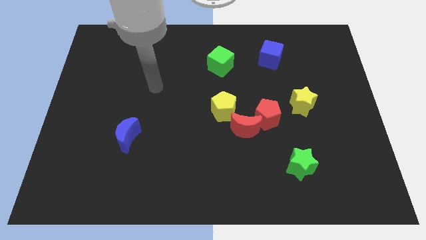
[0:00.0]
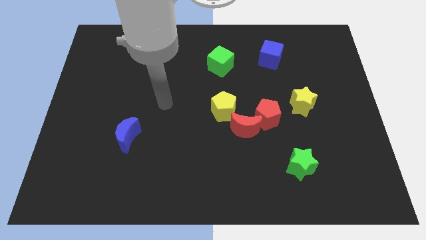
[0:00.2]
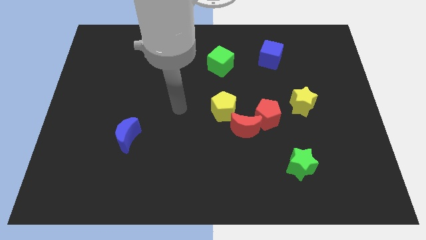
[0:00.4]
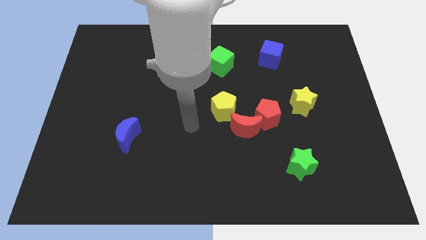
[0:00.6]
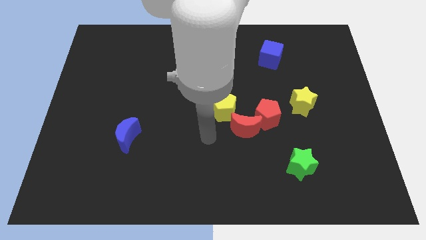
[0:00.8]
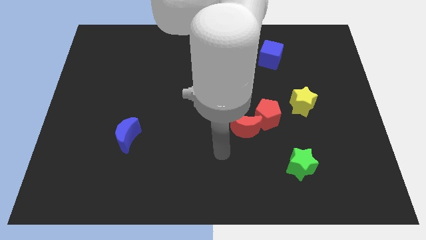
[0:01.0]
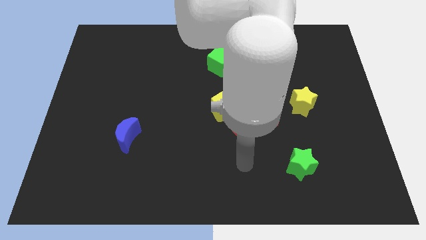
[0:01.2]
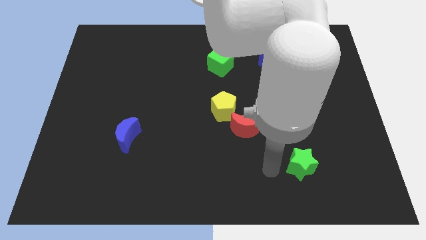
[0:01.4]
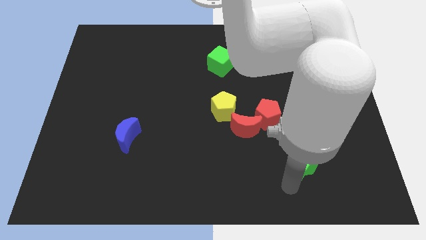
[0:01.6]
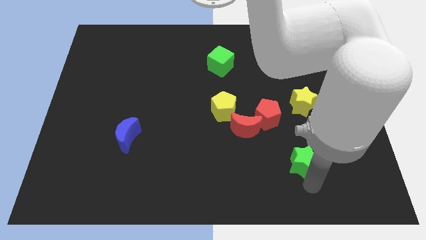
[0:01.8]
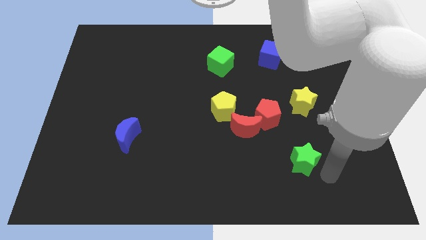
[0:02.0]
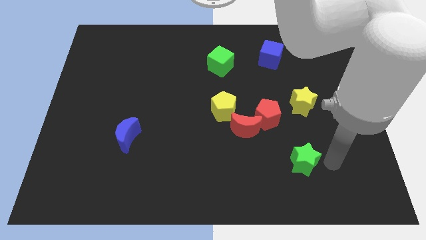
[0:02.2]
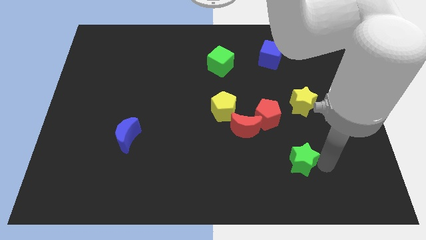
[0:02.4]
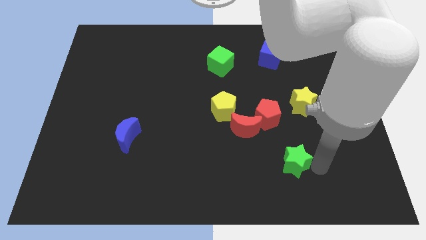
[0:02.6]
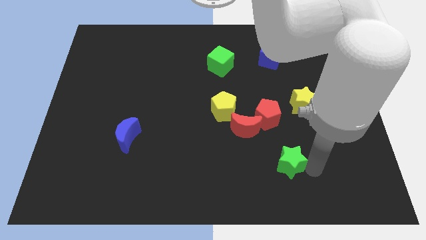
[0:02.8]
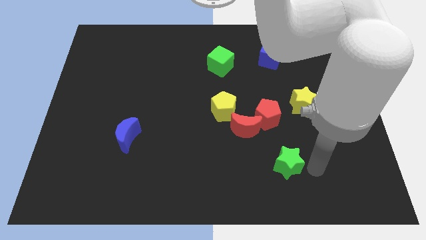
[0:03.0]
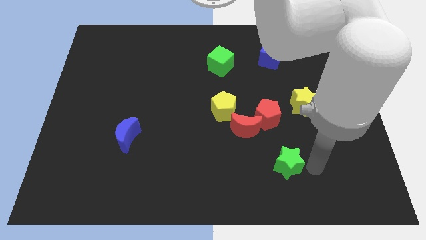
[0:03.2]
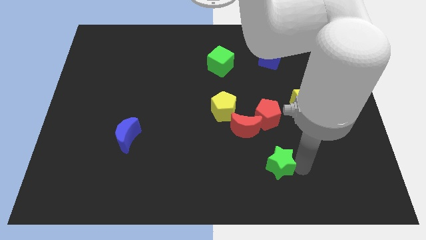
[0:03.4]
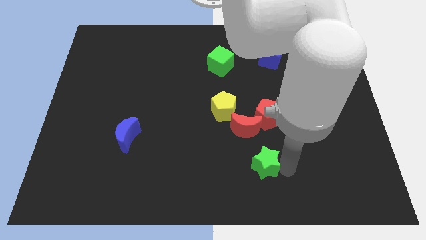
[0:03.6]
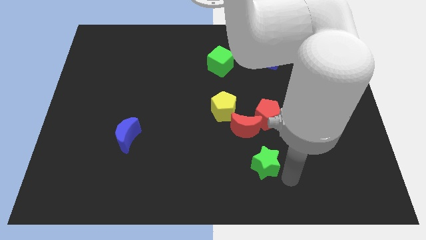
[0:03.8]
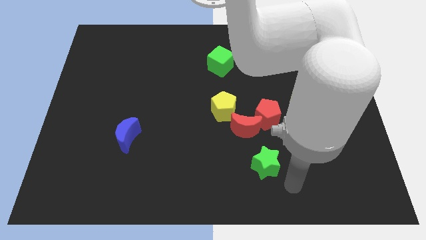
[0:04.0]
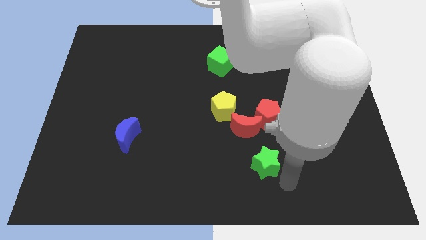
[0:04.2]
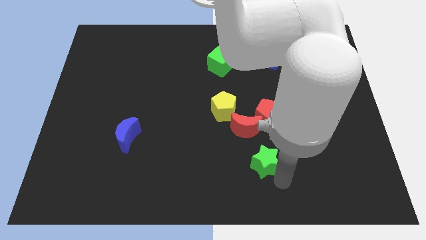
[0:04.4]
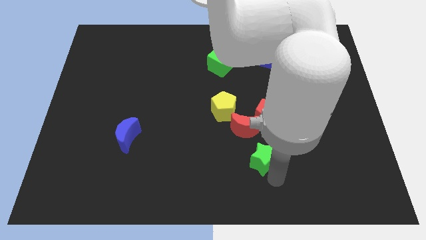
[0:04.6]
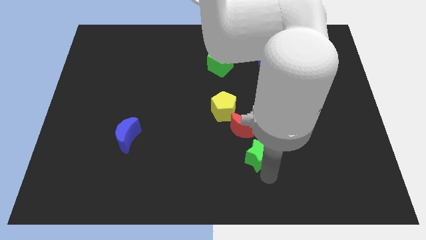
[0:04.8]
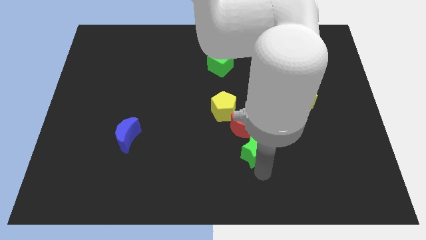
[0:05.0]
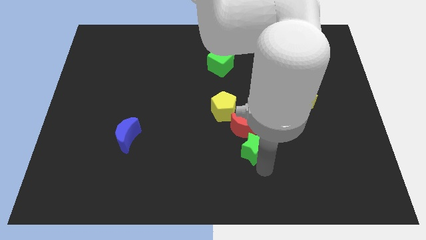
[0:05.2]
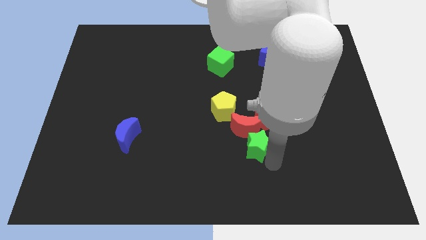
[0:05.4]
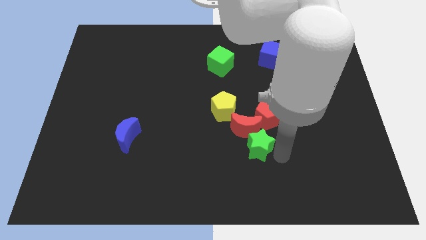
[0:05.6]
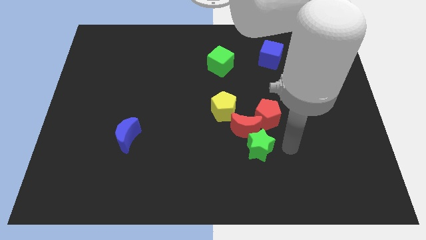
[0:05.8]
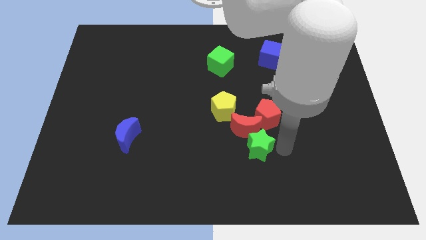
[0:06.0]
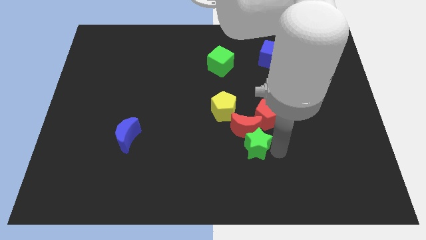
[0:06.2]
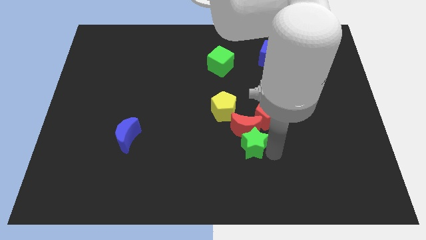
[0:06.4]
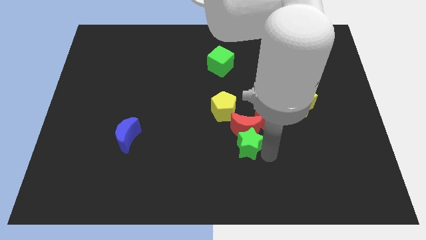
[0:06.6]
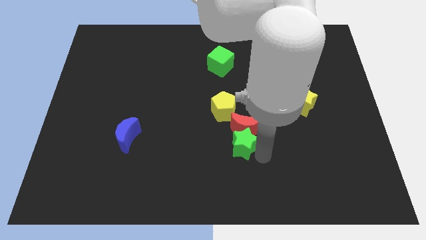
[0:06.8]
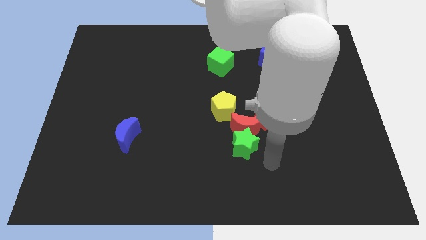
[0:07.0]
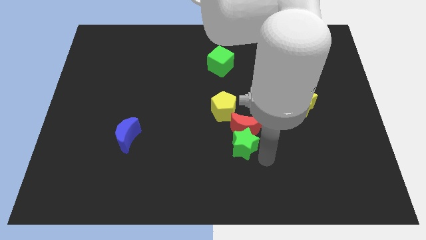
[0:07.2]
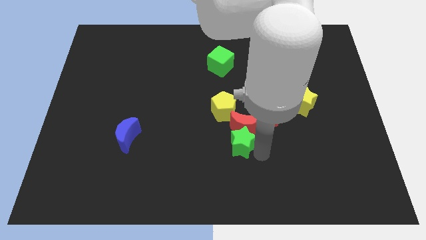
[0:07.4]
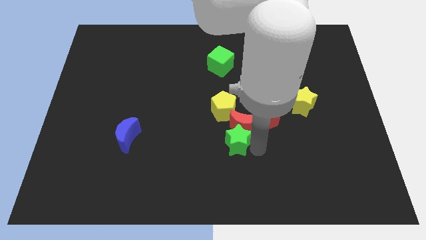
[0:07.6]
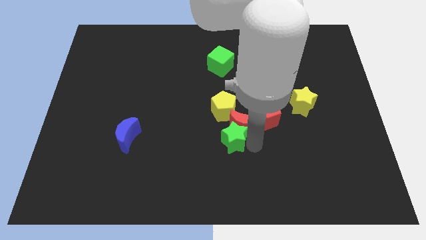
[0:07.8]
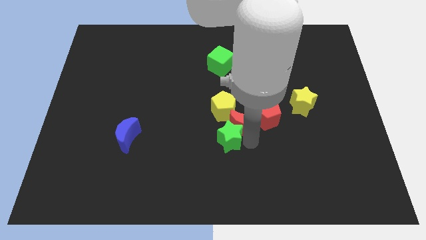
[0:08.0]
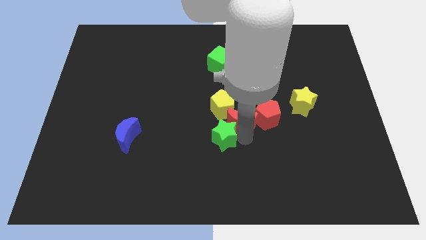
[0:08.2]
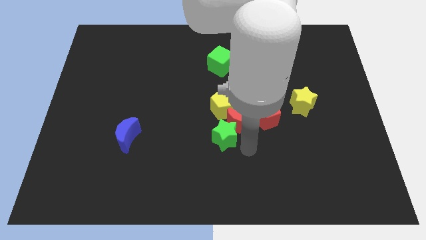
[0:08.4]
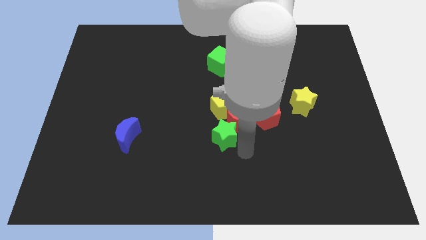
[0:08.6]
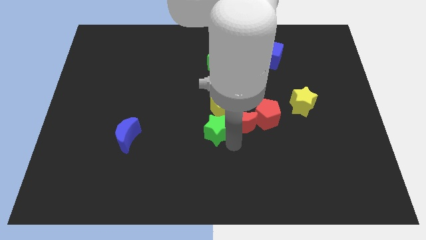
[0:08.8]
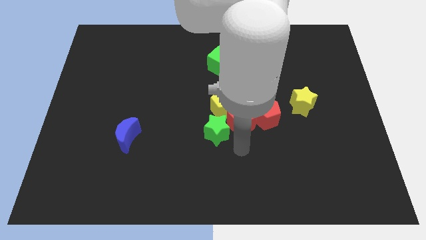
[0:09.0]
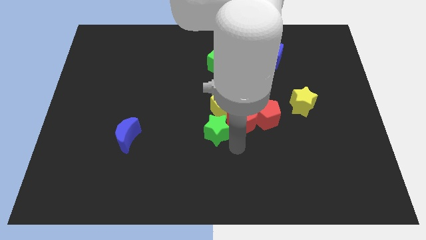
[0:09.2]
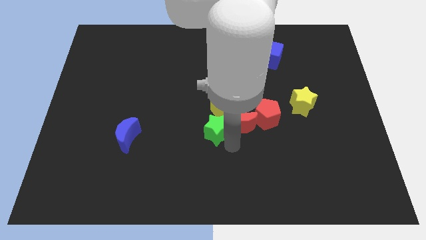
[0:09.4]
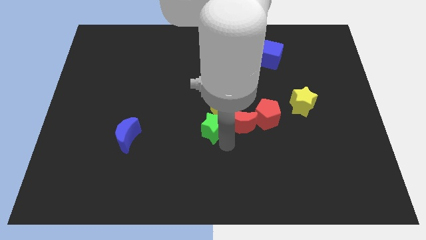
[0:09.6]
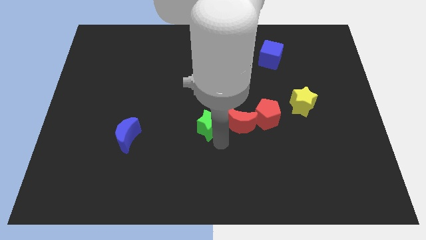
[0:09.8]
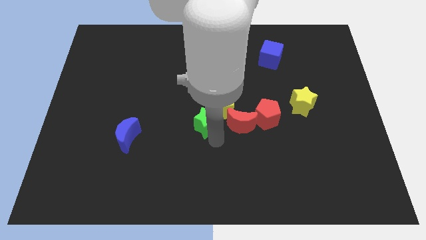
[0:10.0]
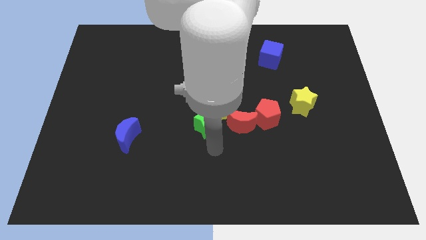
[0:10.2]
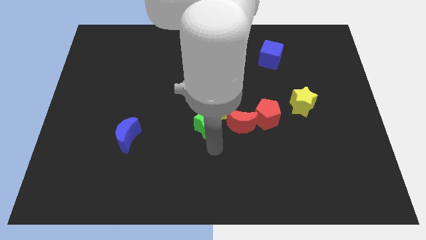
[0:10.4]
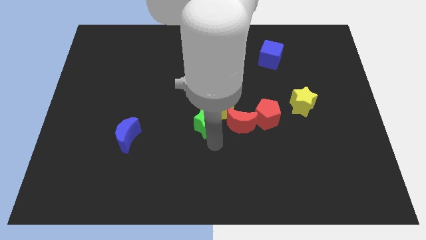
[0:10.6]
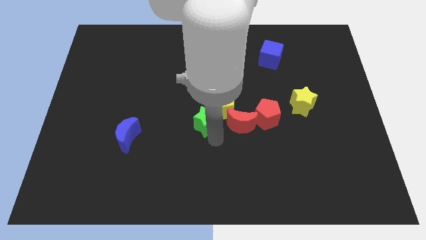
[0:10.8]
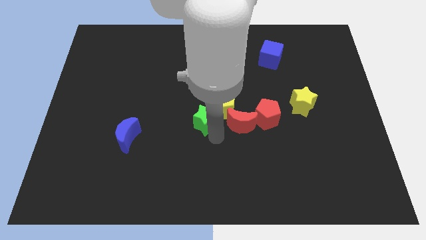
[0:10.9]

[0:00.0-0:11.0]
slide the green star to the top left of the red moon
